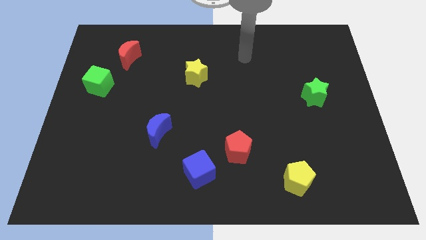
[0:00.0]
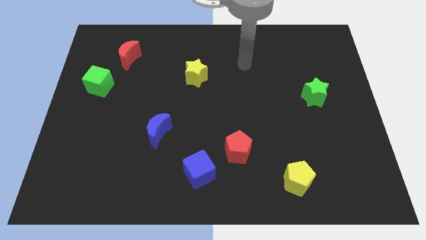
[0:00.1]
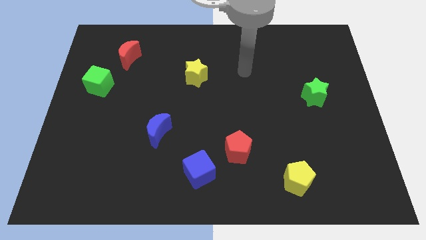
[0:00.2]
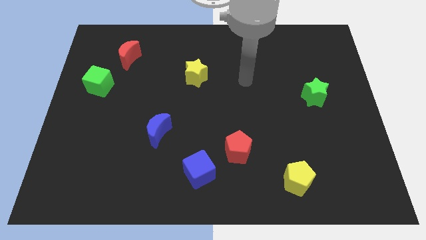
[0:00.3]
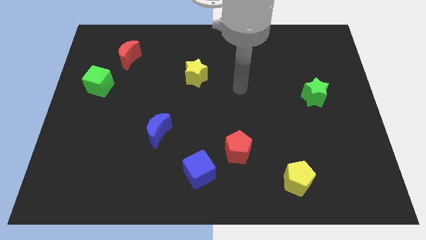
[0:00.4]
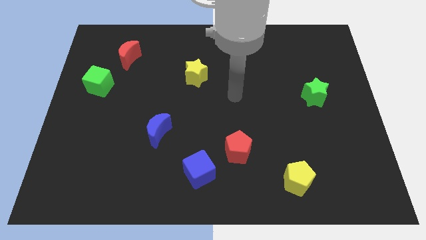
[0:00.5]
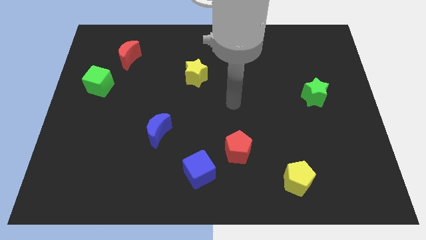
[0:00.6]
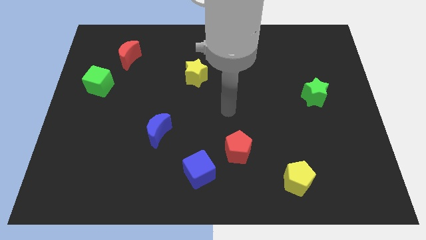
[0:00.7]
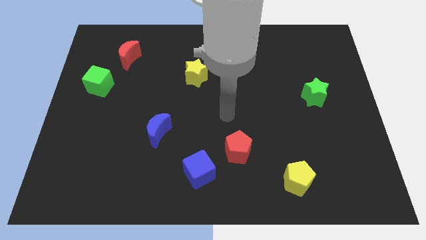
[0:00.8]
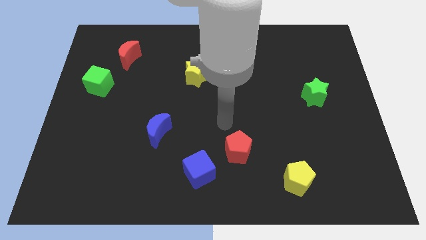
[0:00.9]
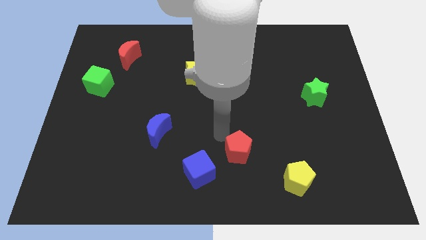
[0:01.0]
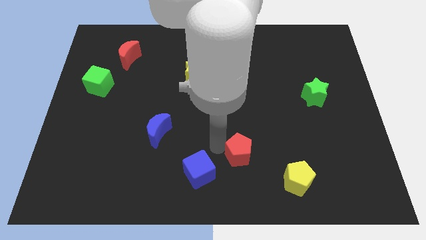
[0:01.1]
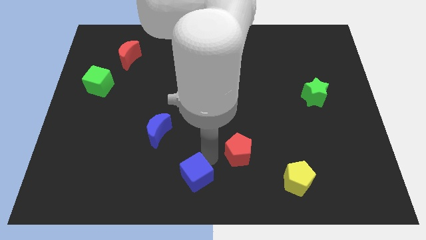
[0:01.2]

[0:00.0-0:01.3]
move the red pentagon away from the blue cube

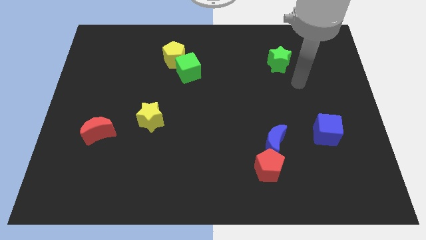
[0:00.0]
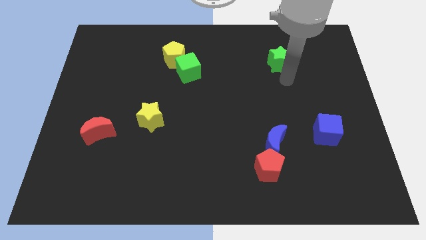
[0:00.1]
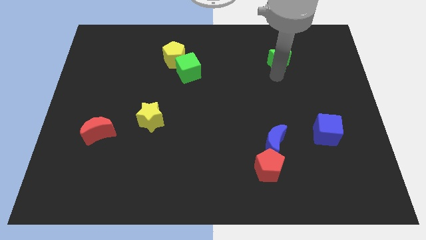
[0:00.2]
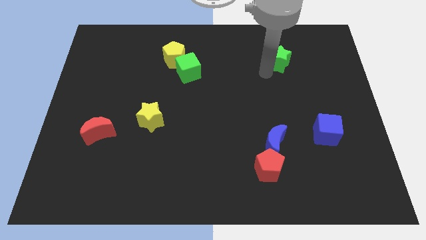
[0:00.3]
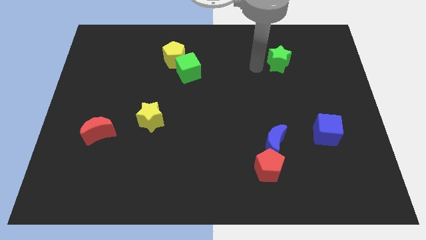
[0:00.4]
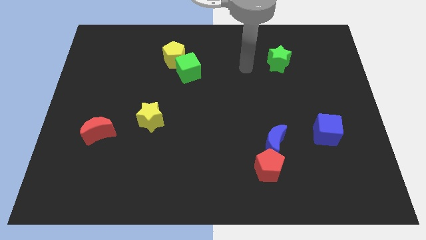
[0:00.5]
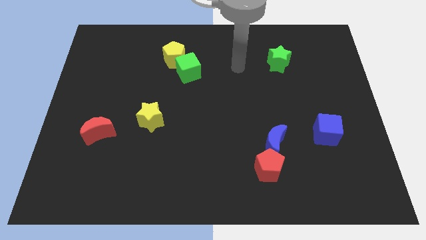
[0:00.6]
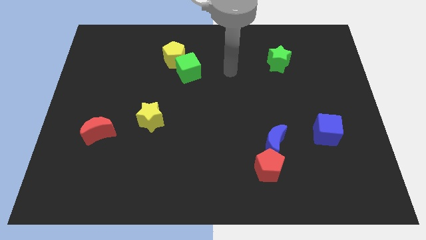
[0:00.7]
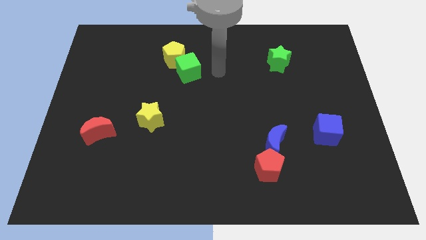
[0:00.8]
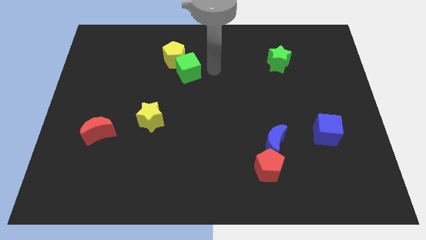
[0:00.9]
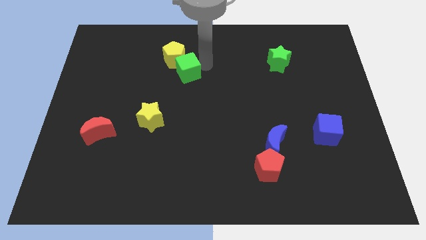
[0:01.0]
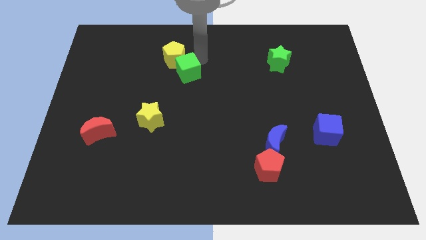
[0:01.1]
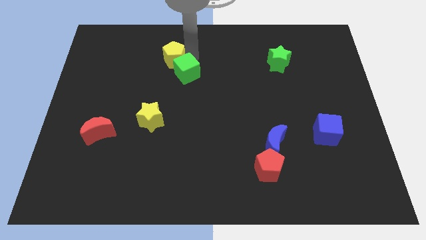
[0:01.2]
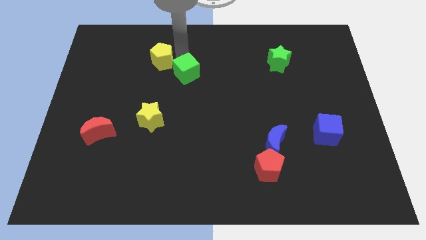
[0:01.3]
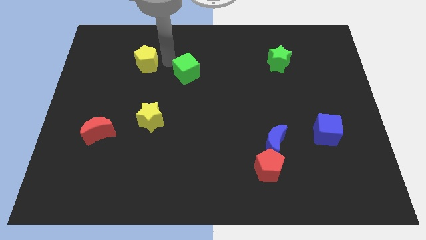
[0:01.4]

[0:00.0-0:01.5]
move the green cube away from the yellow pentagon

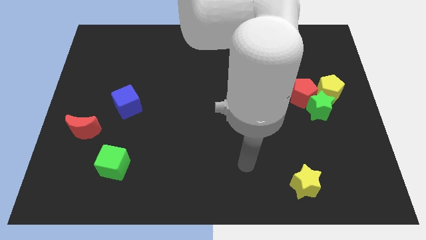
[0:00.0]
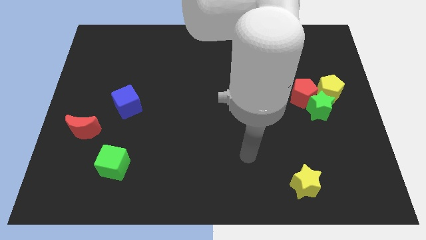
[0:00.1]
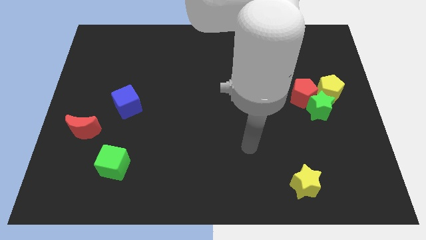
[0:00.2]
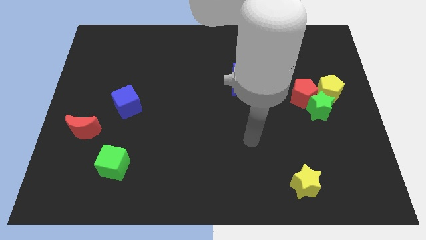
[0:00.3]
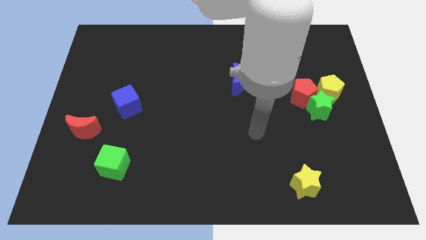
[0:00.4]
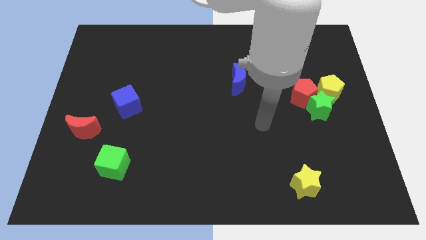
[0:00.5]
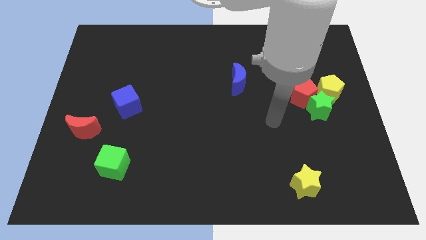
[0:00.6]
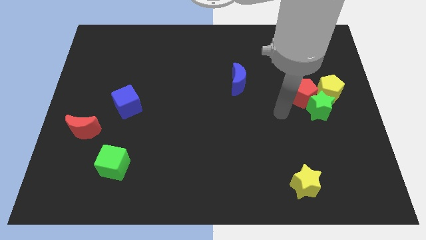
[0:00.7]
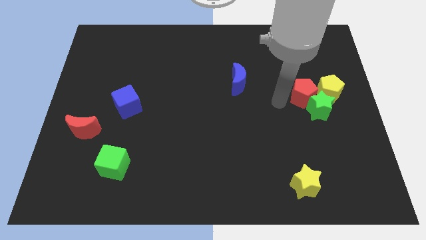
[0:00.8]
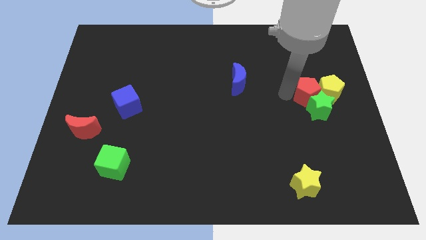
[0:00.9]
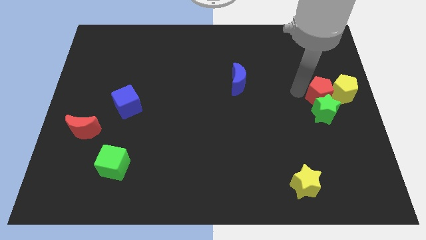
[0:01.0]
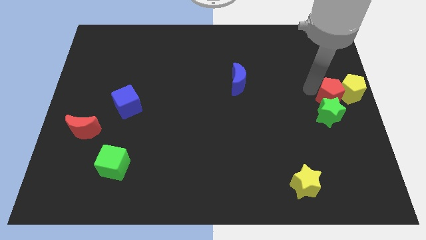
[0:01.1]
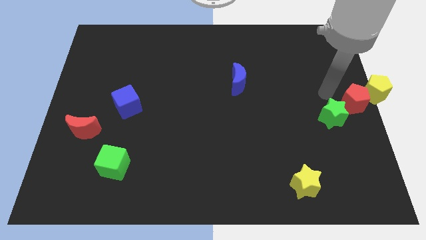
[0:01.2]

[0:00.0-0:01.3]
move the green star away from the red pentagon and yellow pentagon

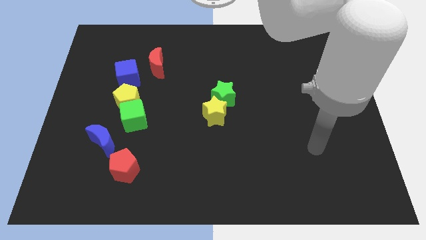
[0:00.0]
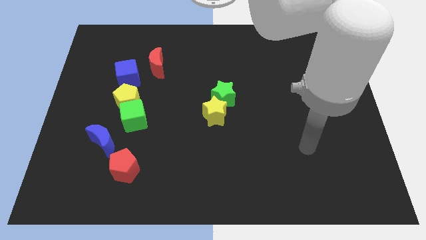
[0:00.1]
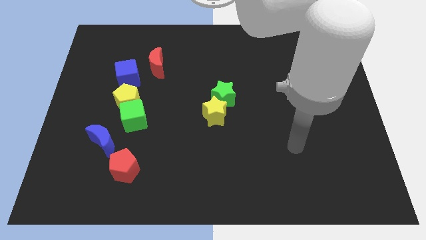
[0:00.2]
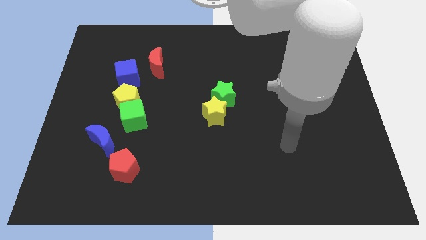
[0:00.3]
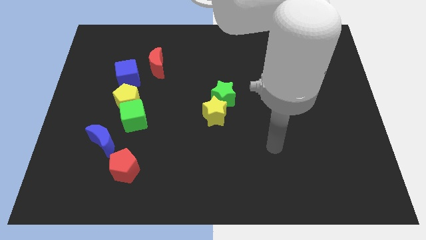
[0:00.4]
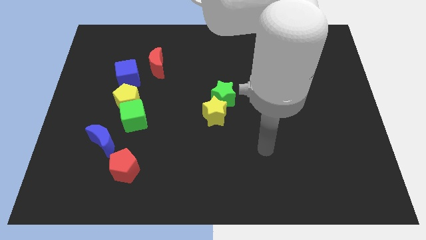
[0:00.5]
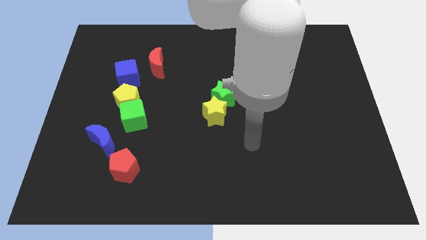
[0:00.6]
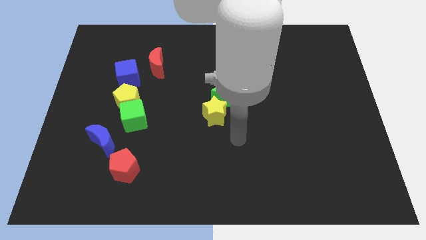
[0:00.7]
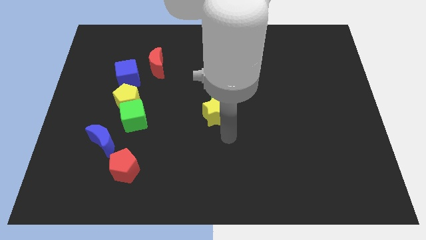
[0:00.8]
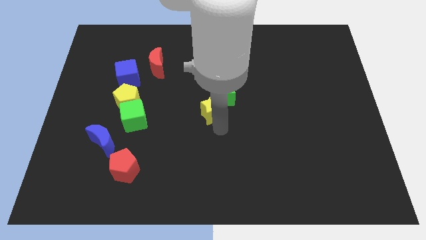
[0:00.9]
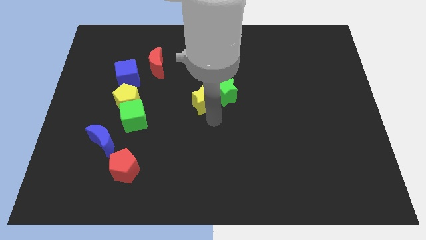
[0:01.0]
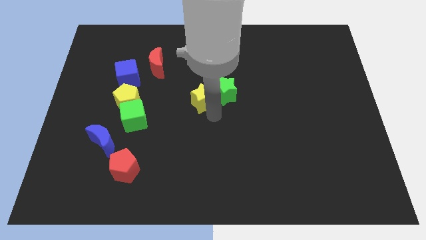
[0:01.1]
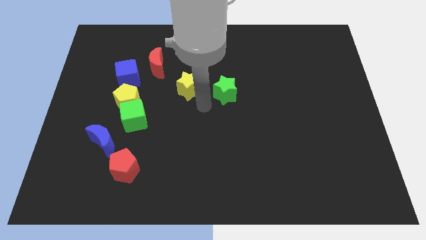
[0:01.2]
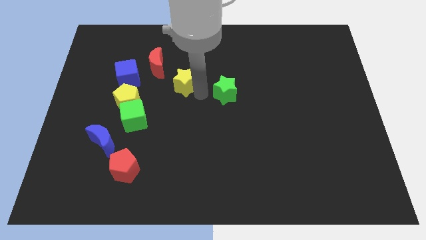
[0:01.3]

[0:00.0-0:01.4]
move the green star away from the yellow star

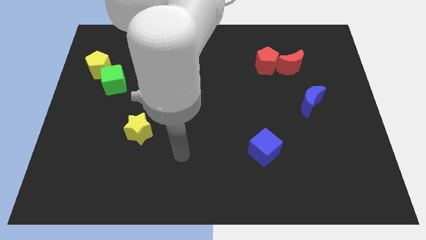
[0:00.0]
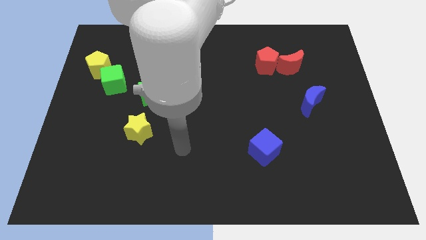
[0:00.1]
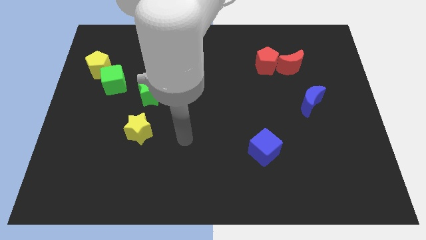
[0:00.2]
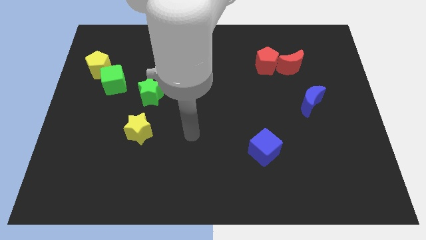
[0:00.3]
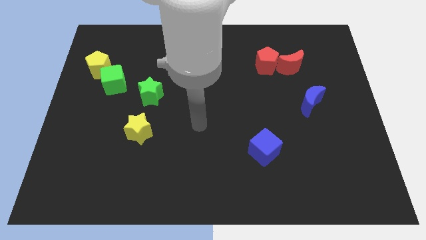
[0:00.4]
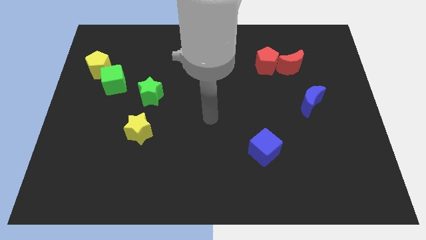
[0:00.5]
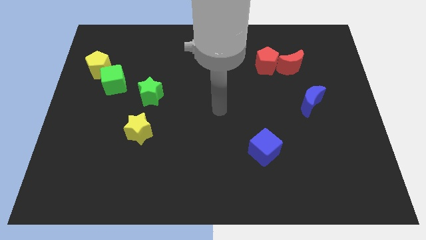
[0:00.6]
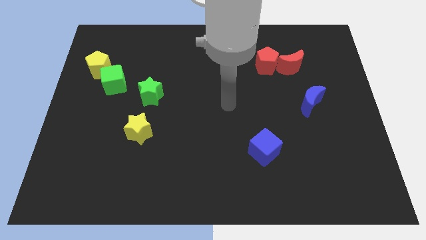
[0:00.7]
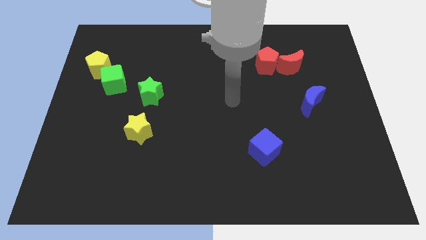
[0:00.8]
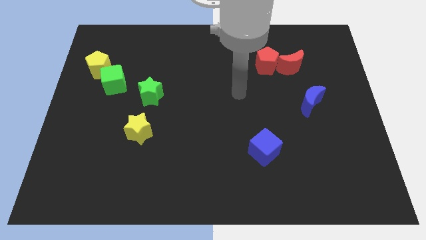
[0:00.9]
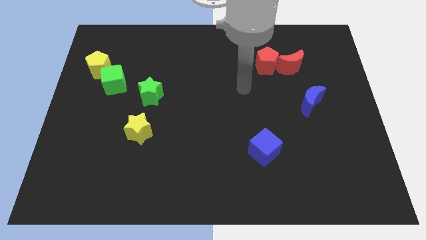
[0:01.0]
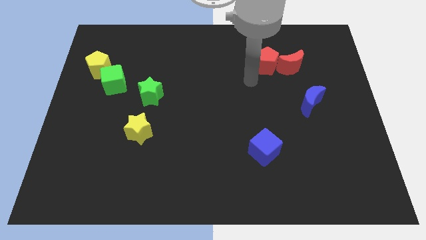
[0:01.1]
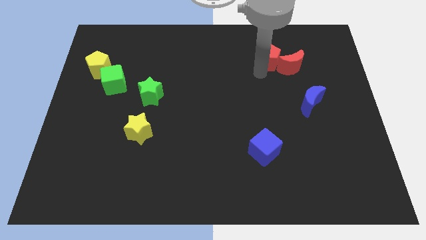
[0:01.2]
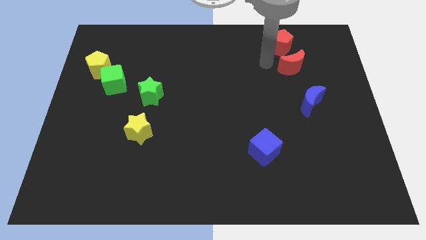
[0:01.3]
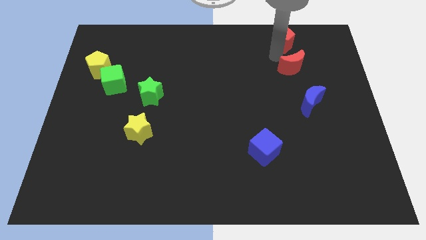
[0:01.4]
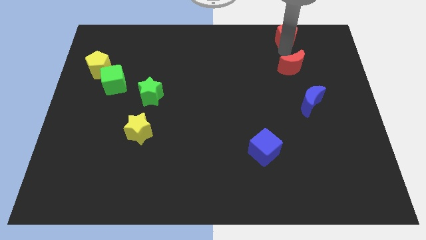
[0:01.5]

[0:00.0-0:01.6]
pull the red moon apart from the red pentagon

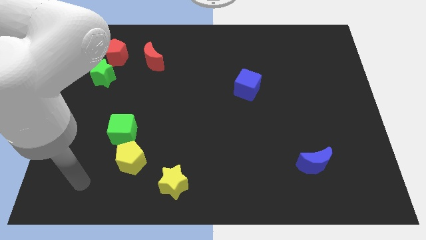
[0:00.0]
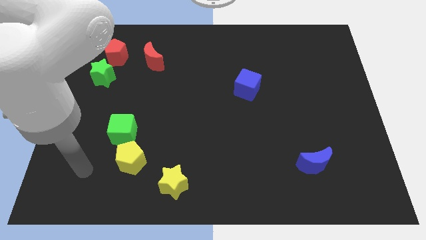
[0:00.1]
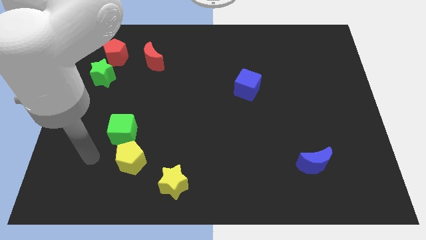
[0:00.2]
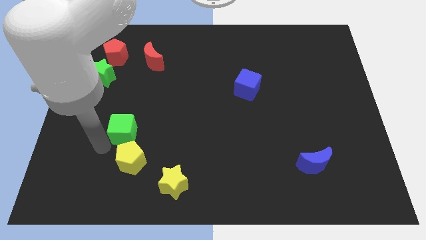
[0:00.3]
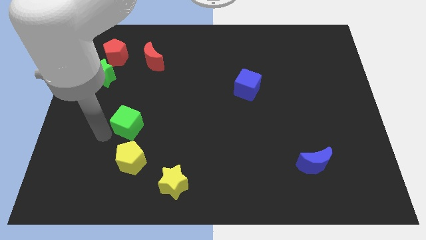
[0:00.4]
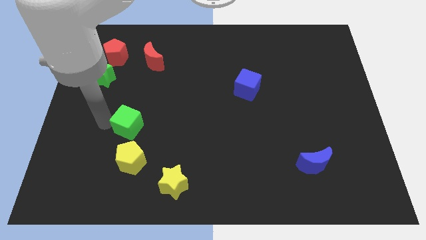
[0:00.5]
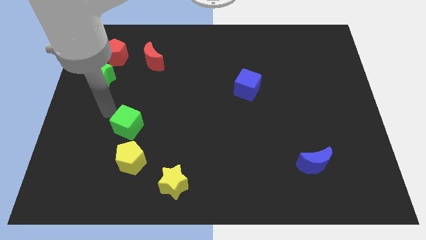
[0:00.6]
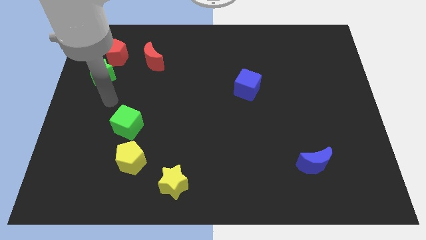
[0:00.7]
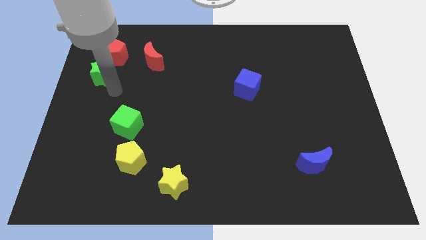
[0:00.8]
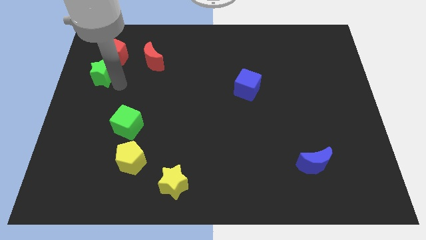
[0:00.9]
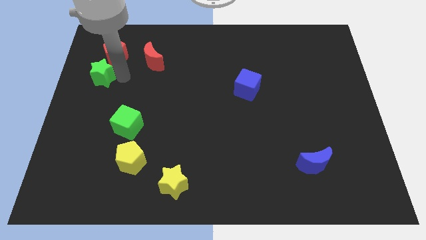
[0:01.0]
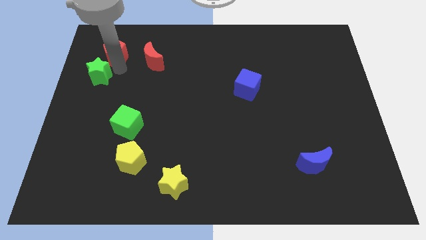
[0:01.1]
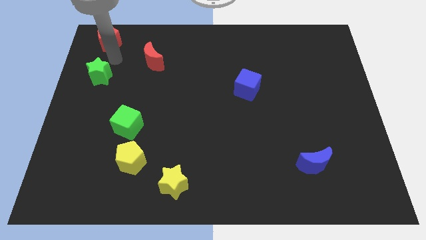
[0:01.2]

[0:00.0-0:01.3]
separate the green star from the red pentagon

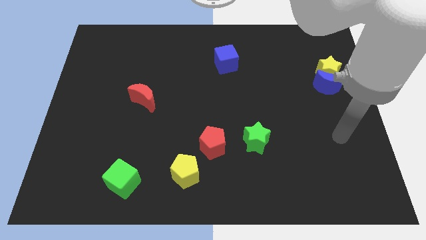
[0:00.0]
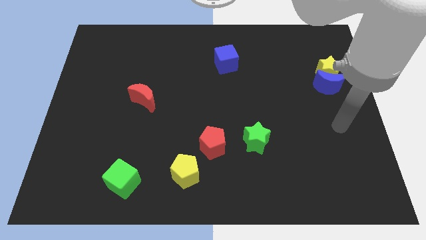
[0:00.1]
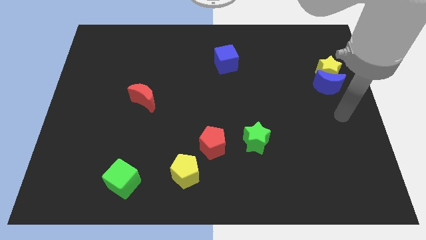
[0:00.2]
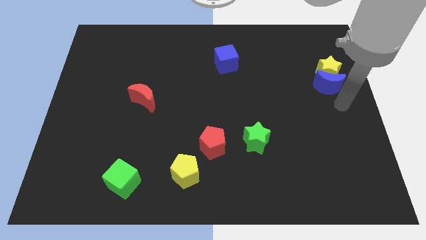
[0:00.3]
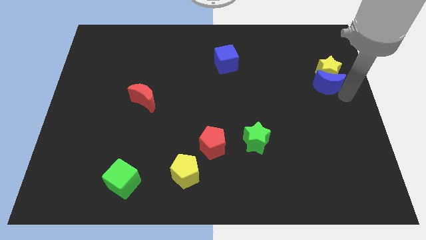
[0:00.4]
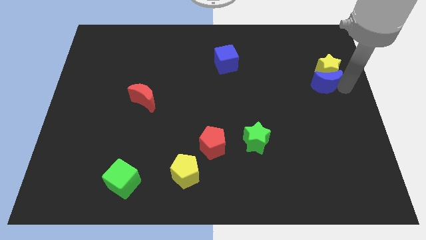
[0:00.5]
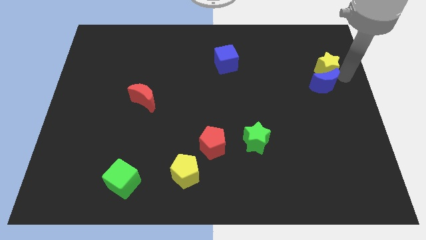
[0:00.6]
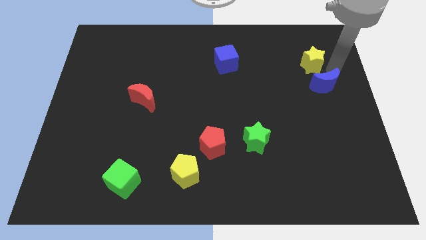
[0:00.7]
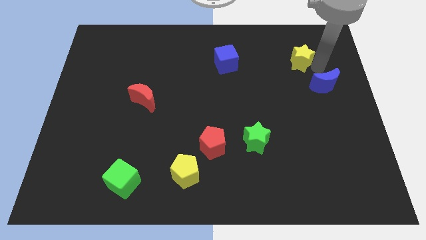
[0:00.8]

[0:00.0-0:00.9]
separate the blue moon from the yellow star

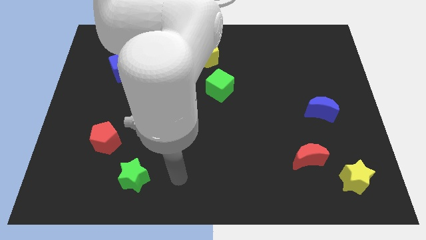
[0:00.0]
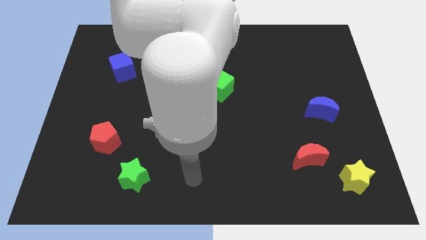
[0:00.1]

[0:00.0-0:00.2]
move the red moon away from the yellow star
